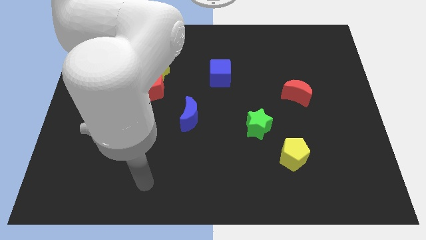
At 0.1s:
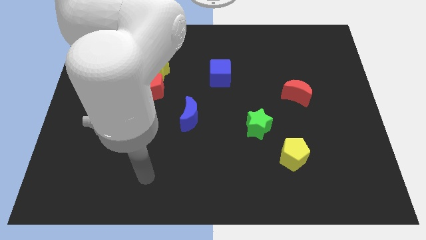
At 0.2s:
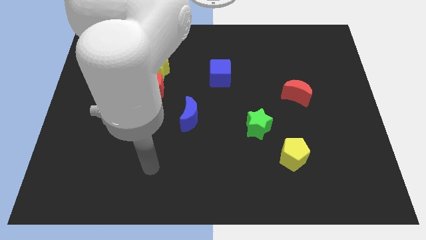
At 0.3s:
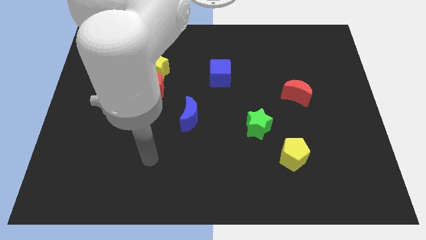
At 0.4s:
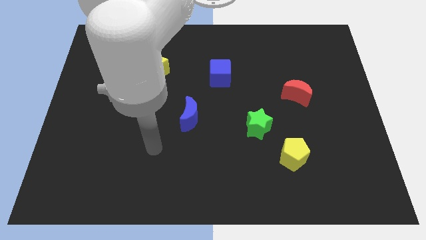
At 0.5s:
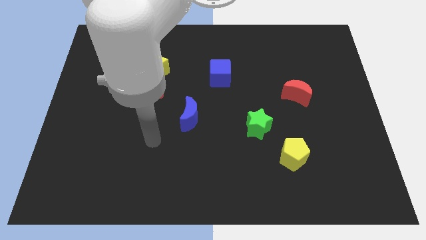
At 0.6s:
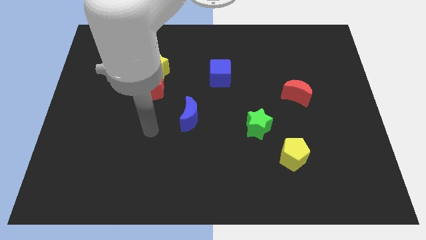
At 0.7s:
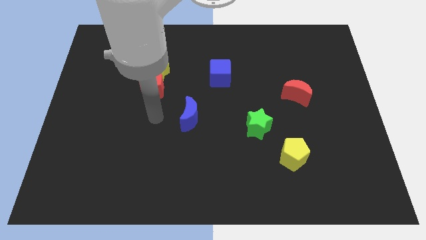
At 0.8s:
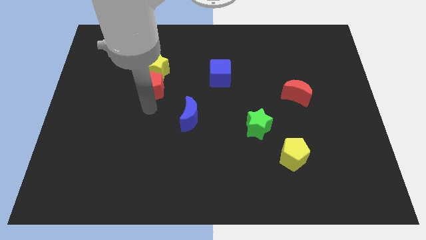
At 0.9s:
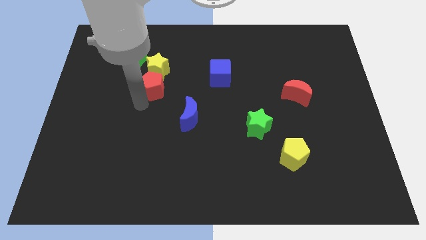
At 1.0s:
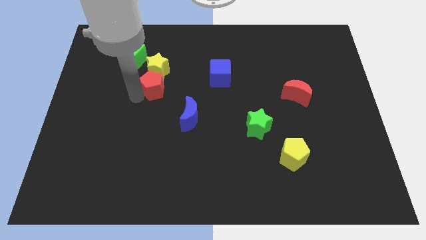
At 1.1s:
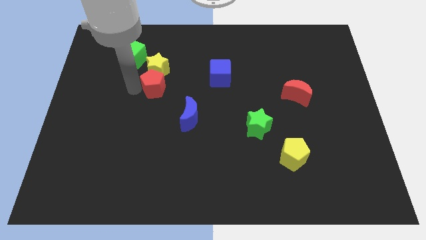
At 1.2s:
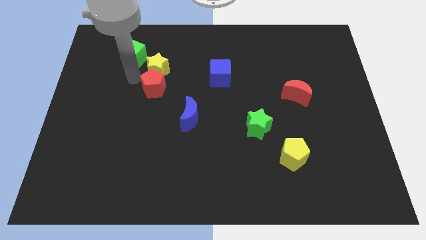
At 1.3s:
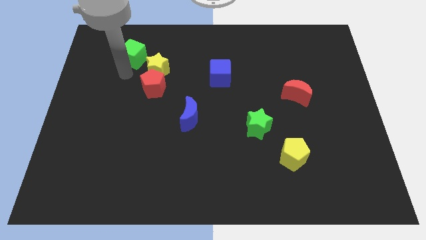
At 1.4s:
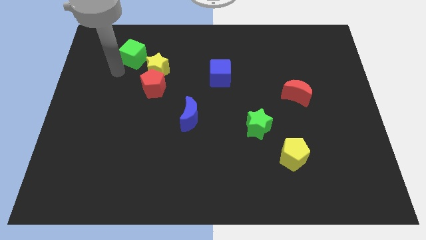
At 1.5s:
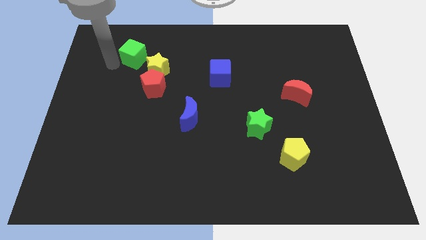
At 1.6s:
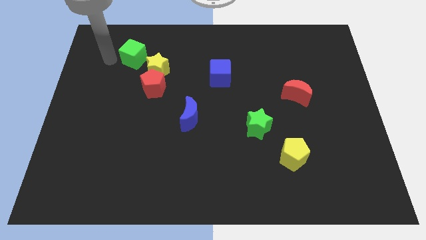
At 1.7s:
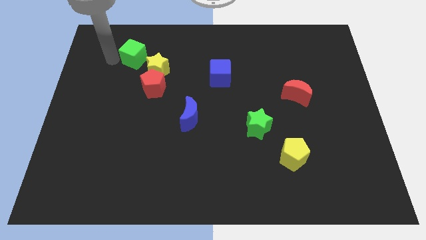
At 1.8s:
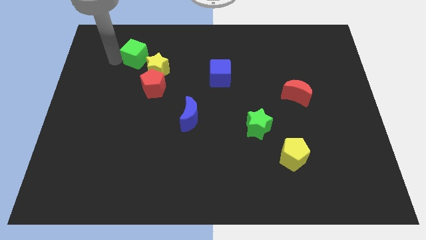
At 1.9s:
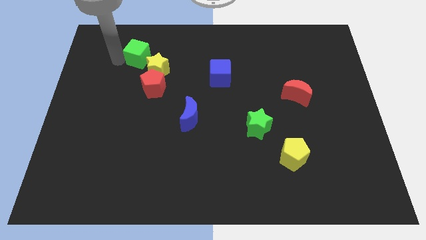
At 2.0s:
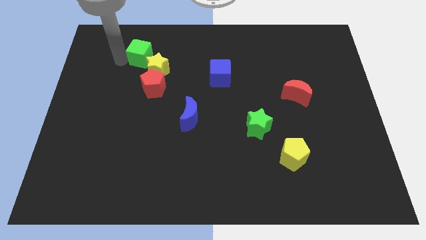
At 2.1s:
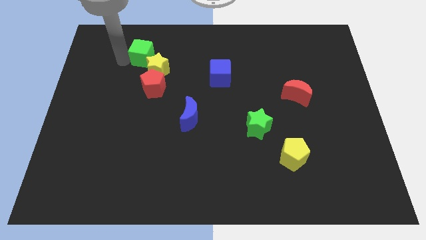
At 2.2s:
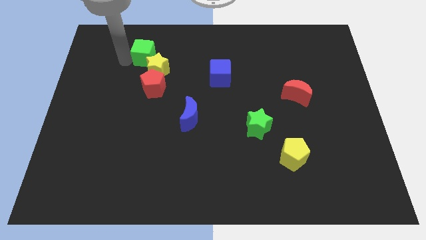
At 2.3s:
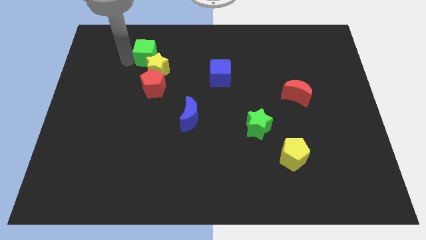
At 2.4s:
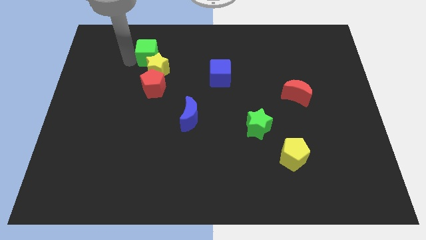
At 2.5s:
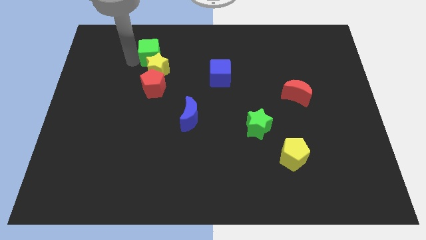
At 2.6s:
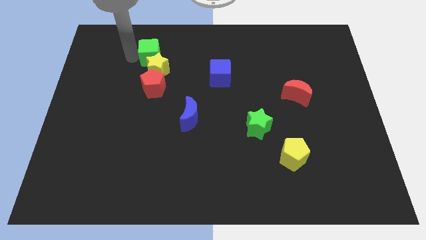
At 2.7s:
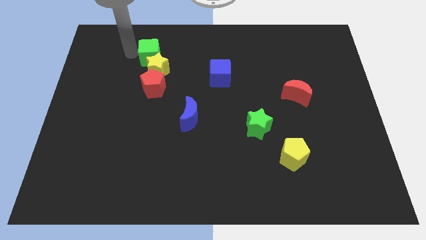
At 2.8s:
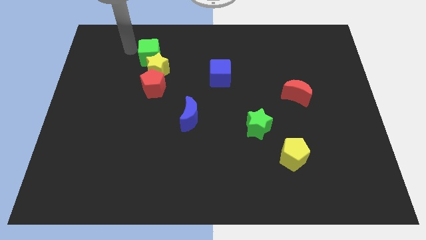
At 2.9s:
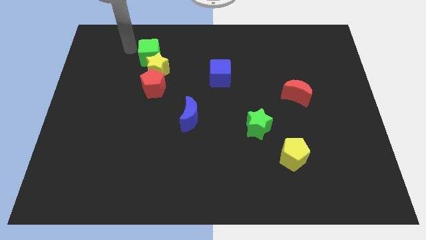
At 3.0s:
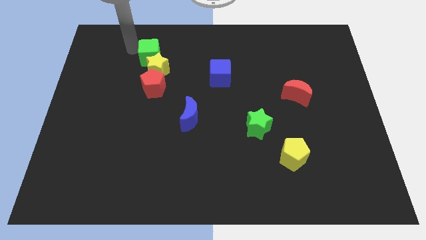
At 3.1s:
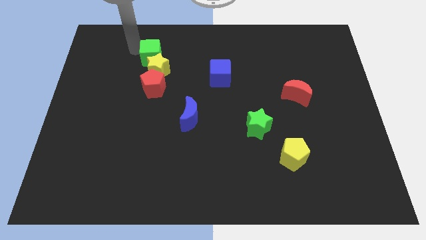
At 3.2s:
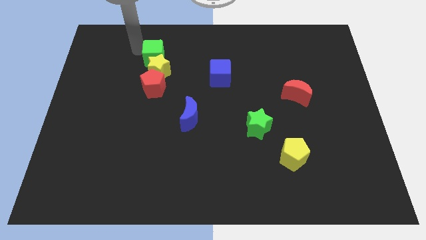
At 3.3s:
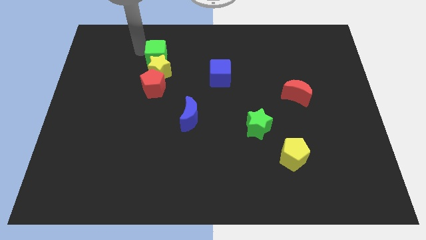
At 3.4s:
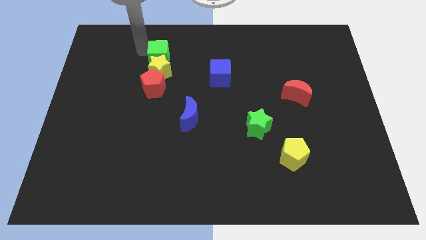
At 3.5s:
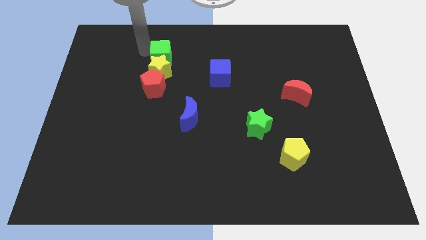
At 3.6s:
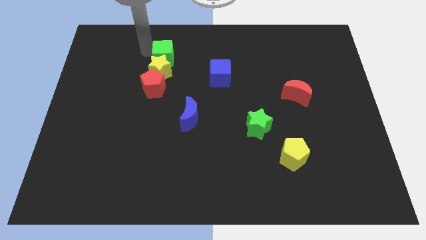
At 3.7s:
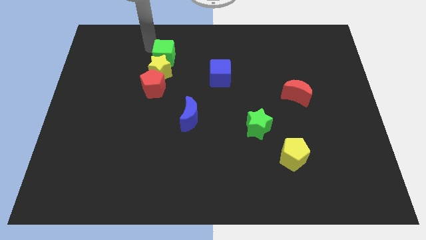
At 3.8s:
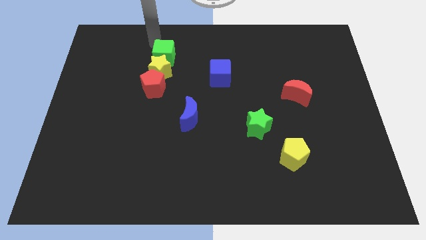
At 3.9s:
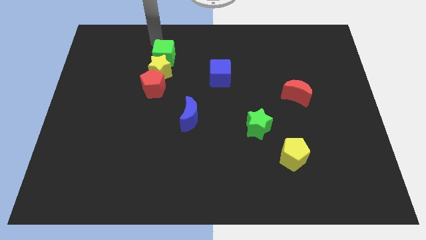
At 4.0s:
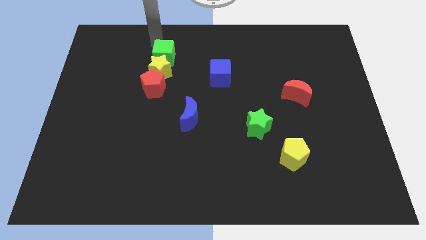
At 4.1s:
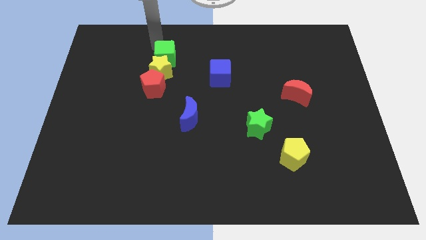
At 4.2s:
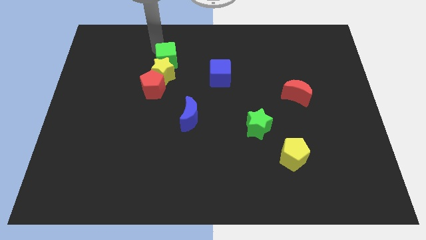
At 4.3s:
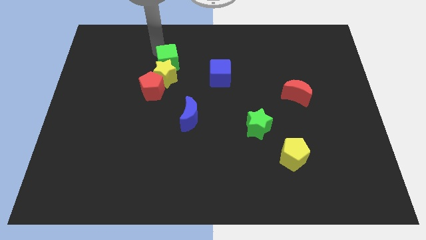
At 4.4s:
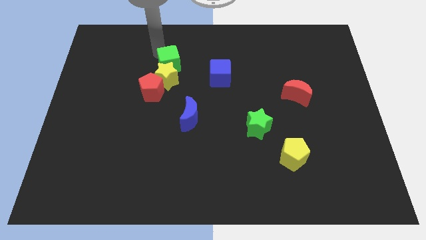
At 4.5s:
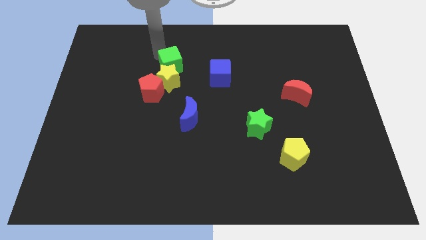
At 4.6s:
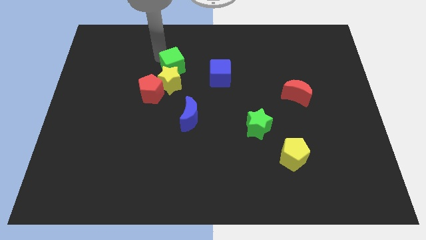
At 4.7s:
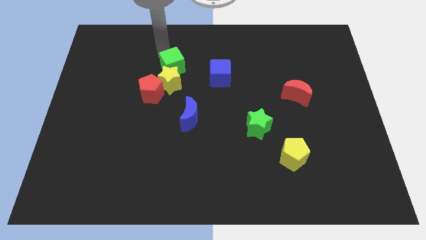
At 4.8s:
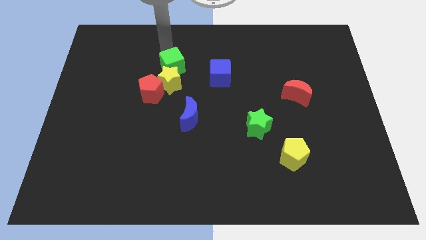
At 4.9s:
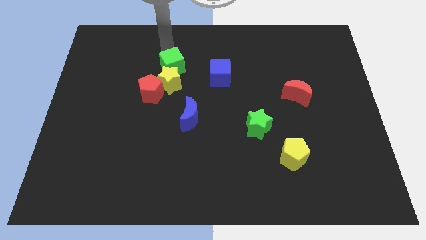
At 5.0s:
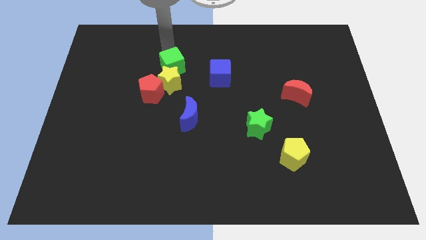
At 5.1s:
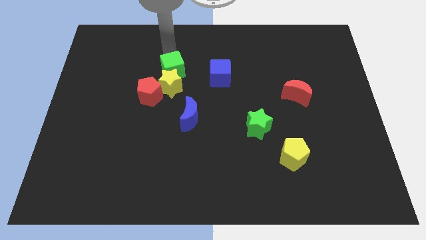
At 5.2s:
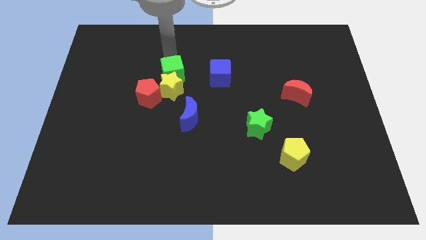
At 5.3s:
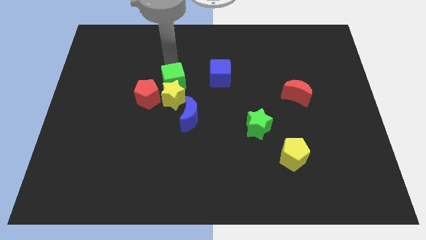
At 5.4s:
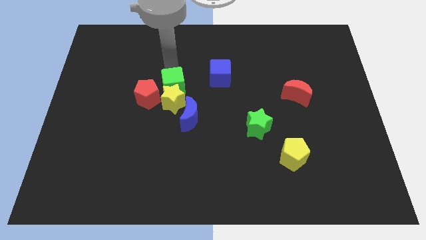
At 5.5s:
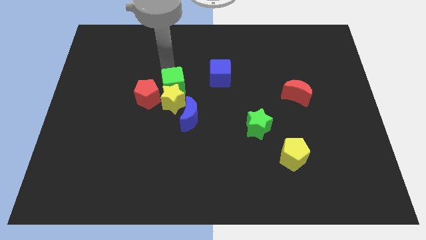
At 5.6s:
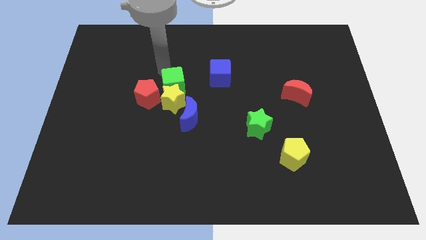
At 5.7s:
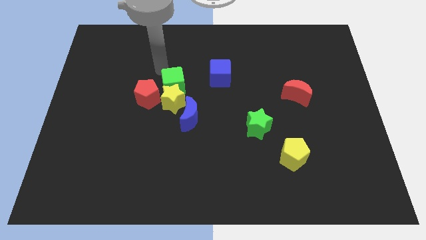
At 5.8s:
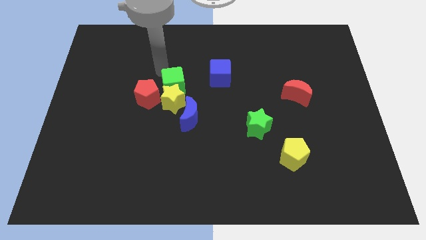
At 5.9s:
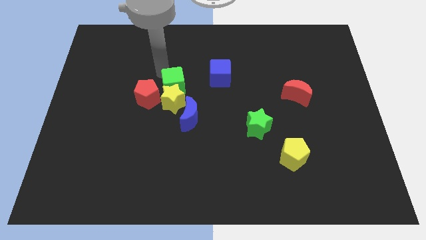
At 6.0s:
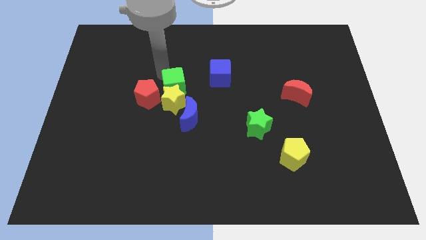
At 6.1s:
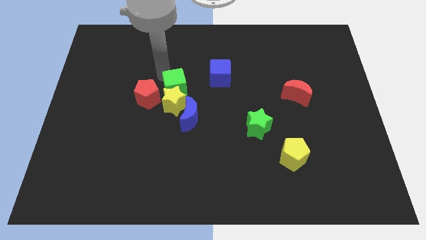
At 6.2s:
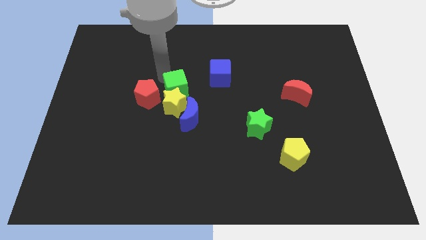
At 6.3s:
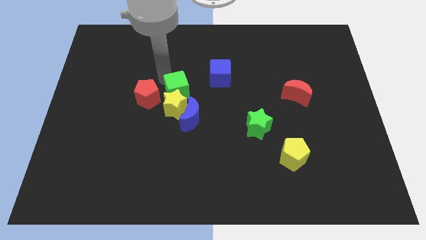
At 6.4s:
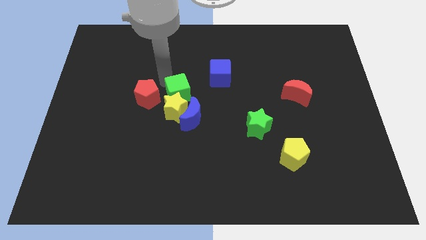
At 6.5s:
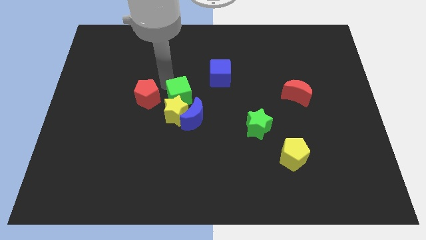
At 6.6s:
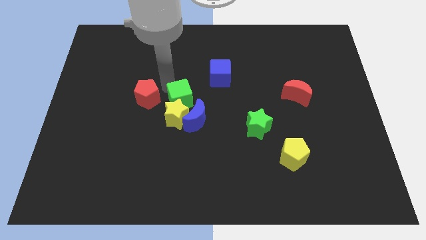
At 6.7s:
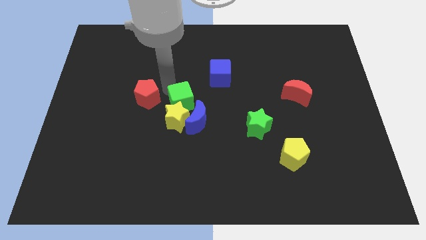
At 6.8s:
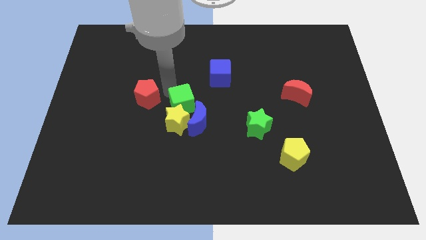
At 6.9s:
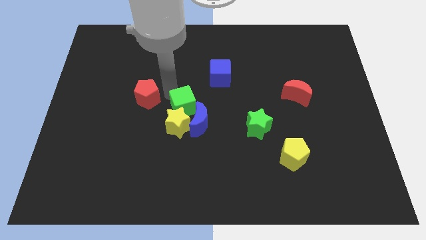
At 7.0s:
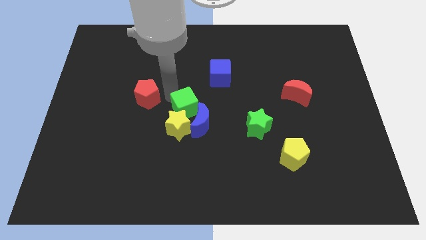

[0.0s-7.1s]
move the green cube close to the blue moon
